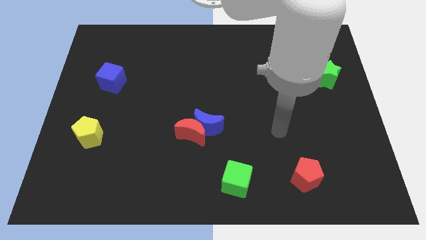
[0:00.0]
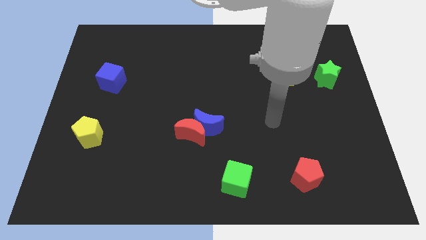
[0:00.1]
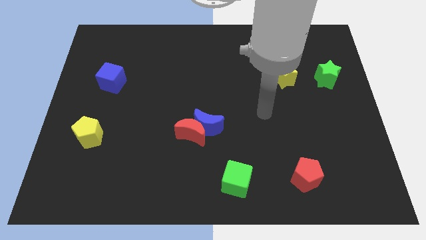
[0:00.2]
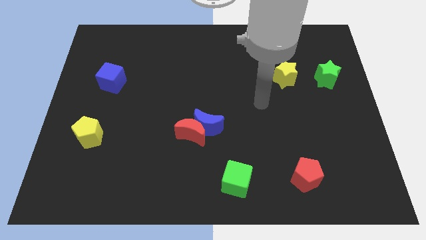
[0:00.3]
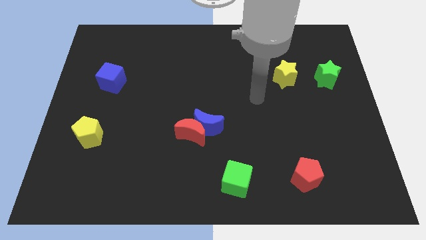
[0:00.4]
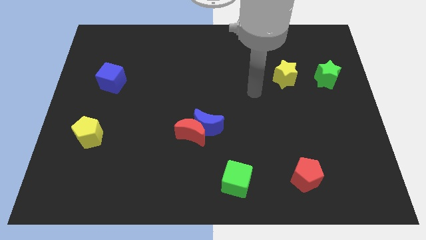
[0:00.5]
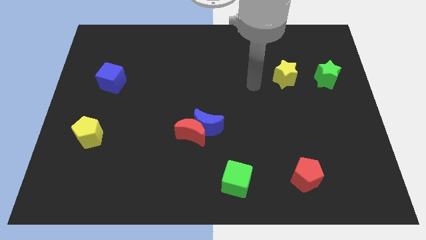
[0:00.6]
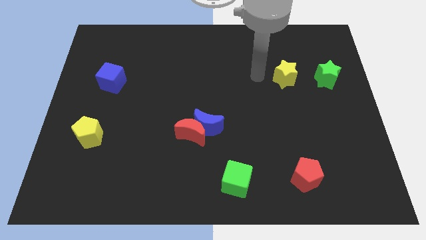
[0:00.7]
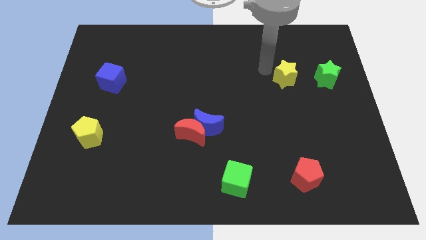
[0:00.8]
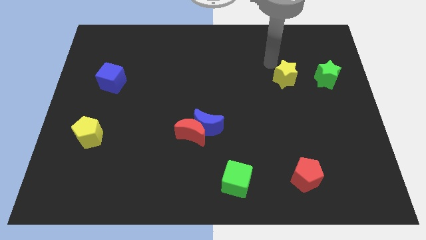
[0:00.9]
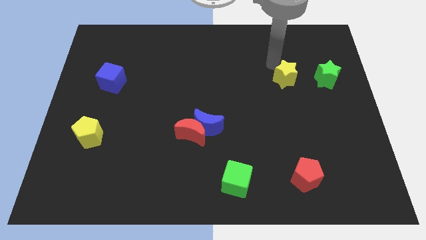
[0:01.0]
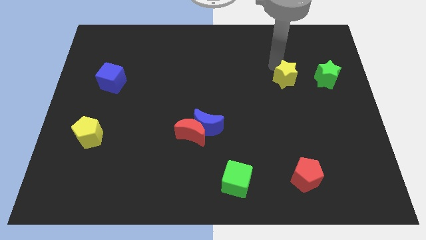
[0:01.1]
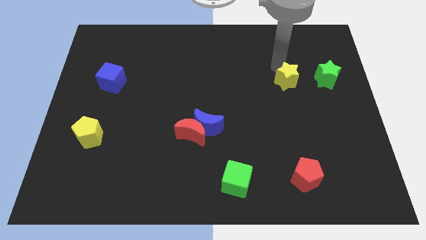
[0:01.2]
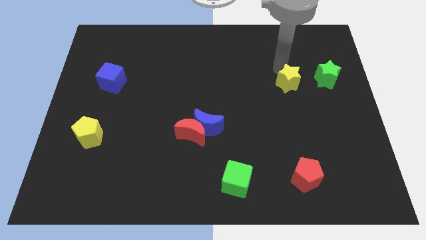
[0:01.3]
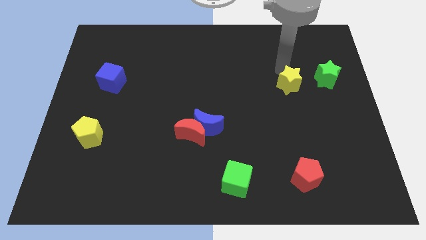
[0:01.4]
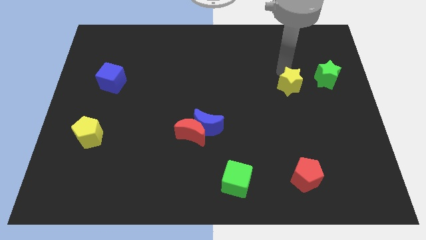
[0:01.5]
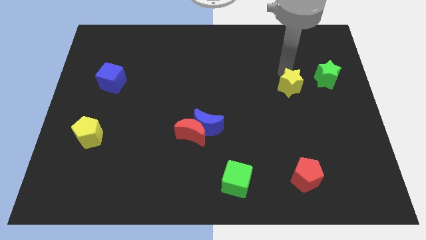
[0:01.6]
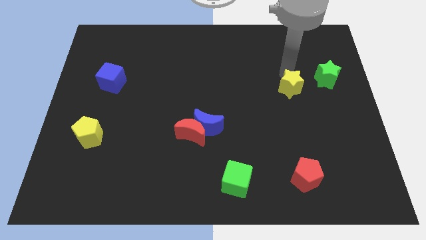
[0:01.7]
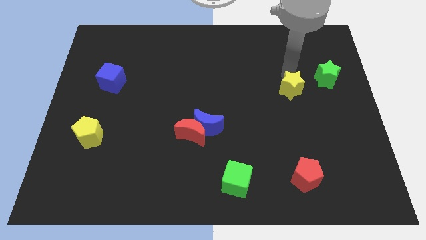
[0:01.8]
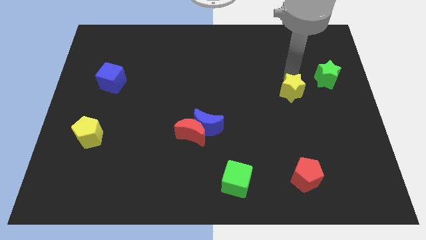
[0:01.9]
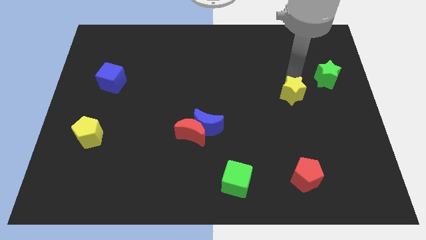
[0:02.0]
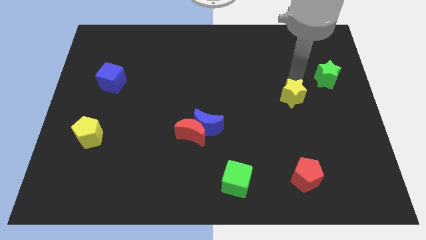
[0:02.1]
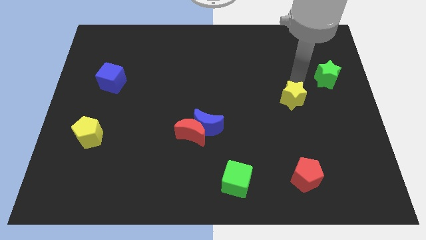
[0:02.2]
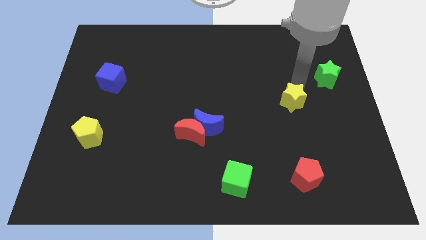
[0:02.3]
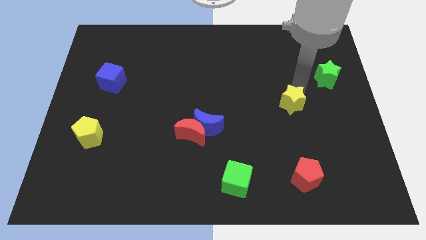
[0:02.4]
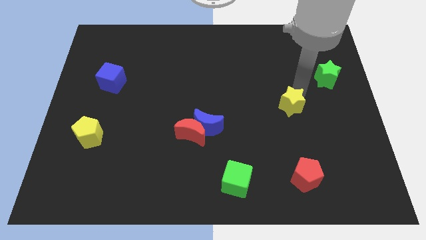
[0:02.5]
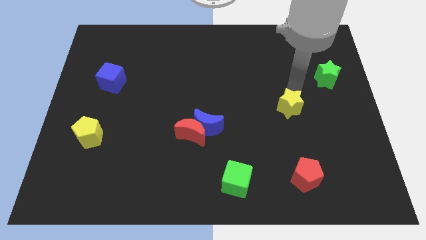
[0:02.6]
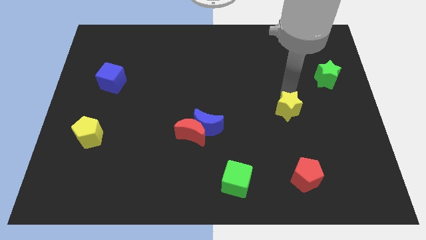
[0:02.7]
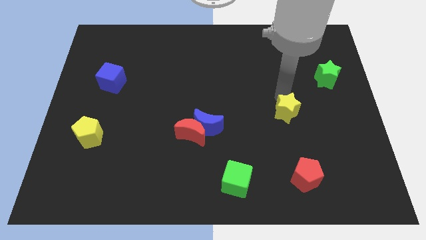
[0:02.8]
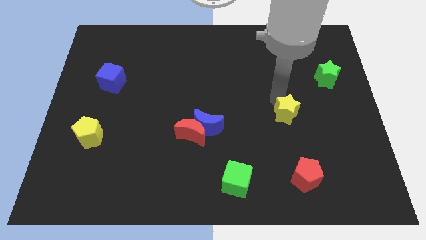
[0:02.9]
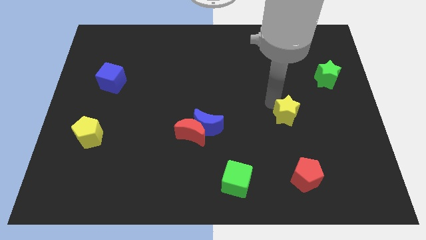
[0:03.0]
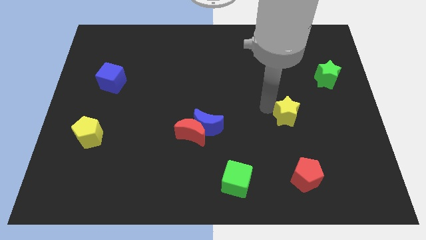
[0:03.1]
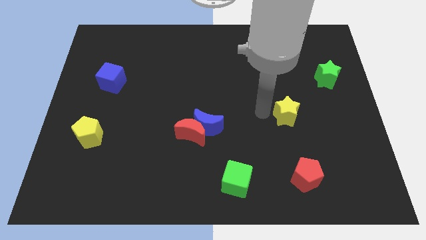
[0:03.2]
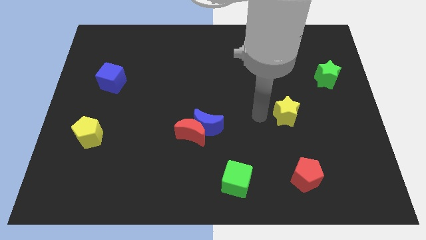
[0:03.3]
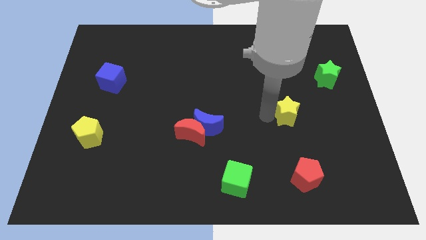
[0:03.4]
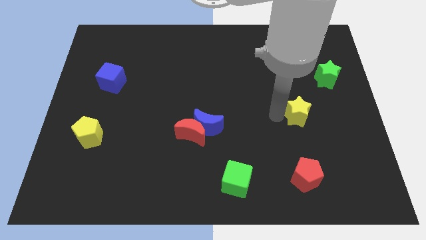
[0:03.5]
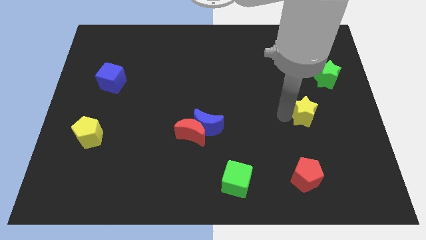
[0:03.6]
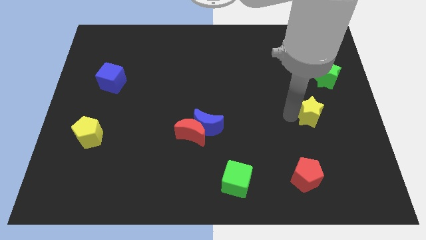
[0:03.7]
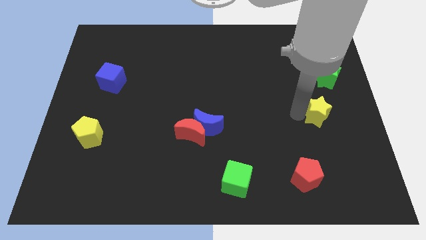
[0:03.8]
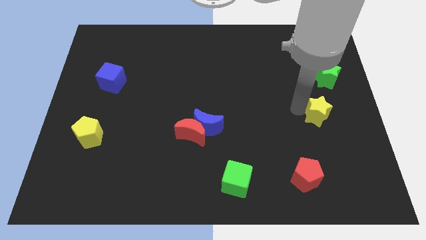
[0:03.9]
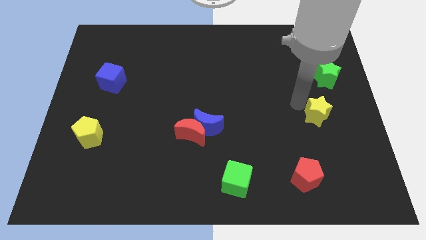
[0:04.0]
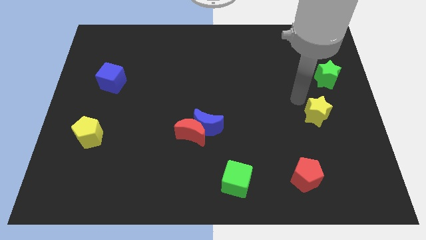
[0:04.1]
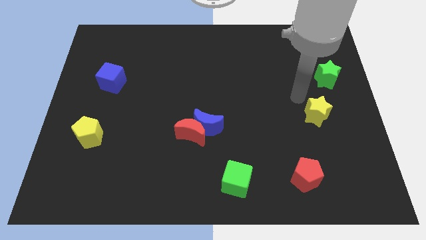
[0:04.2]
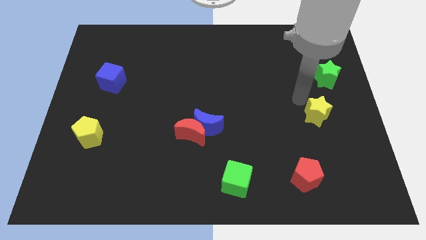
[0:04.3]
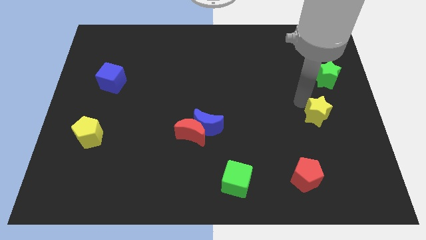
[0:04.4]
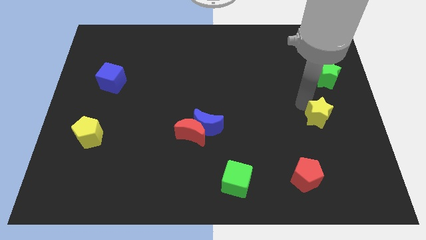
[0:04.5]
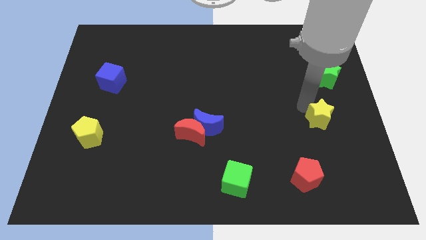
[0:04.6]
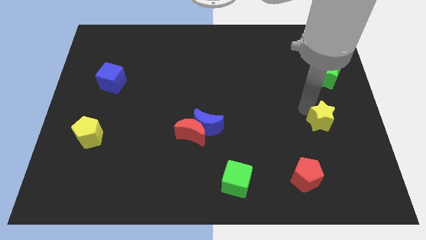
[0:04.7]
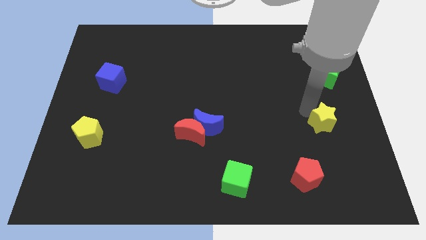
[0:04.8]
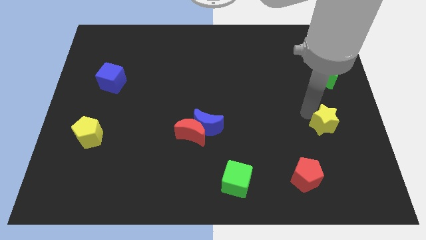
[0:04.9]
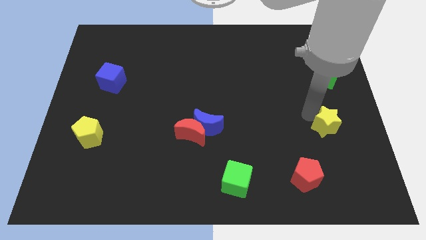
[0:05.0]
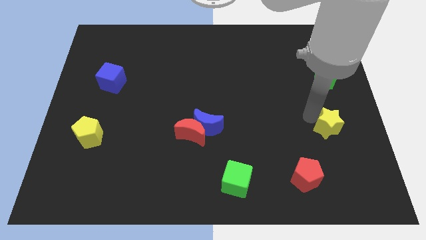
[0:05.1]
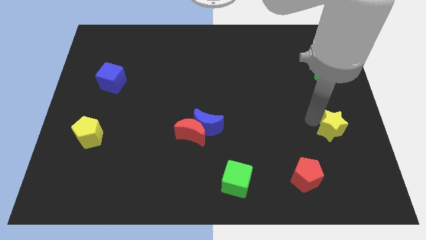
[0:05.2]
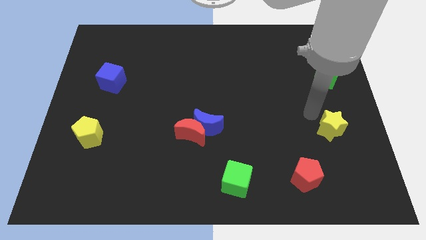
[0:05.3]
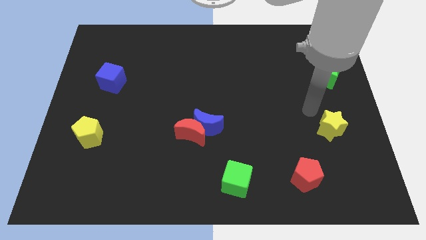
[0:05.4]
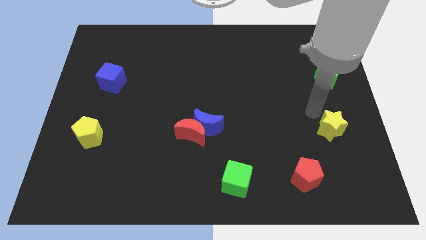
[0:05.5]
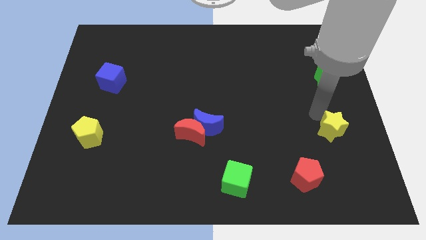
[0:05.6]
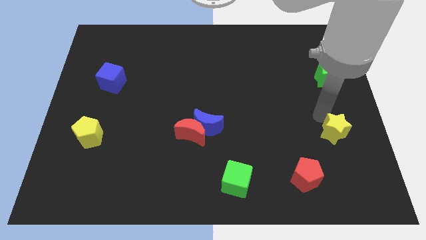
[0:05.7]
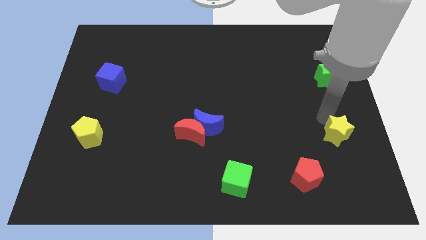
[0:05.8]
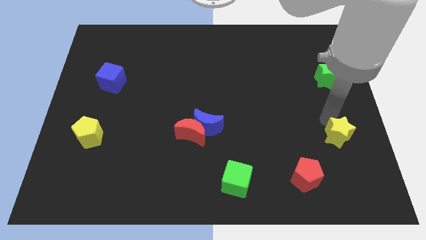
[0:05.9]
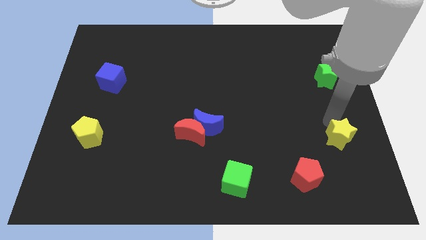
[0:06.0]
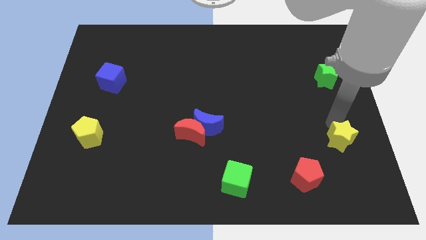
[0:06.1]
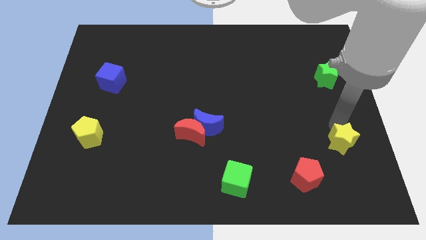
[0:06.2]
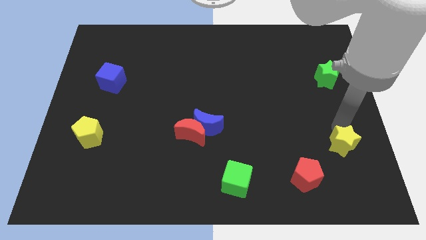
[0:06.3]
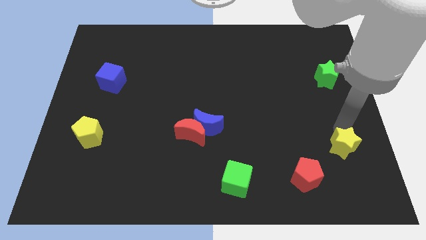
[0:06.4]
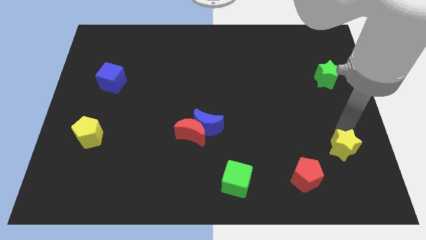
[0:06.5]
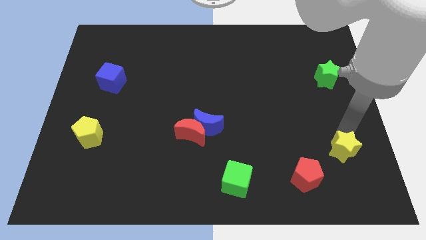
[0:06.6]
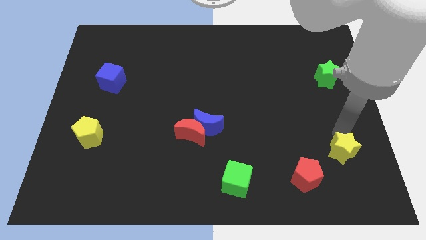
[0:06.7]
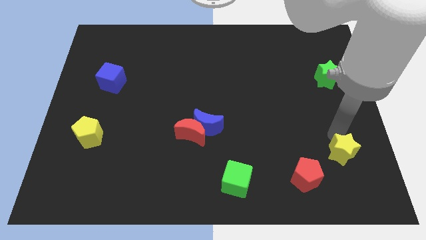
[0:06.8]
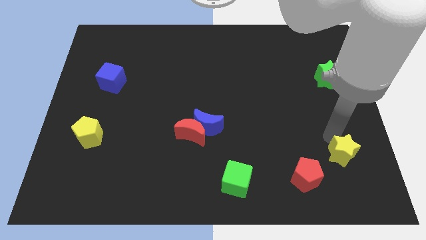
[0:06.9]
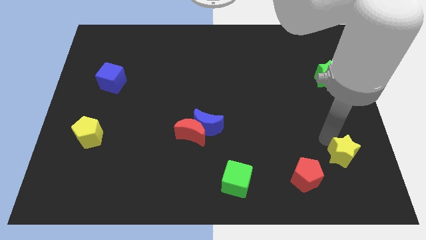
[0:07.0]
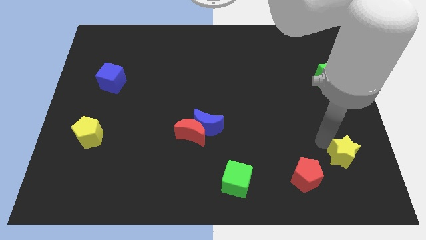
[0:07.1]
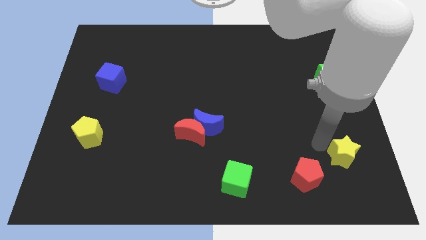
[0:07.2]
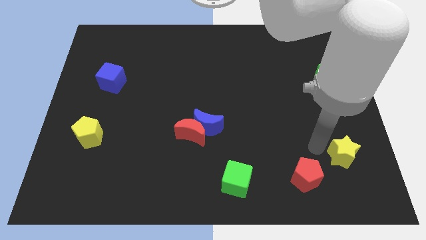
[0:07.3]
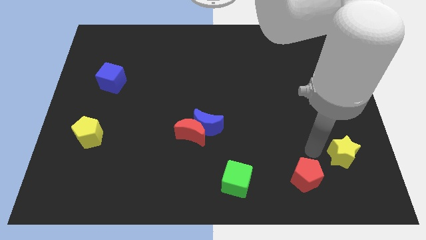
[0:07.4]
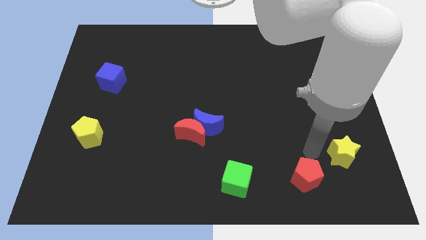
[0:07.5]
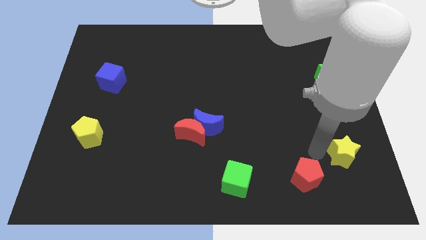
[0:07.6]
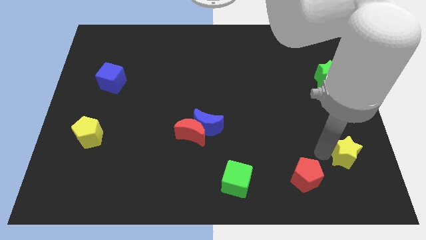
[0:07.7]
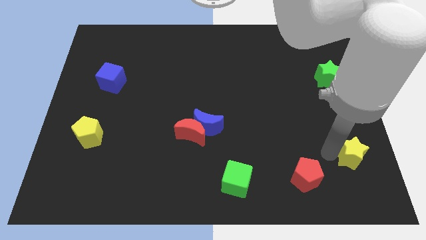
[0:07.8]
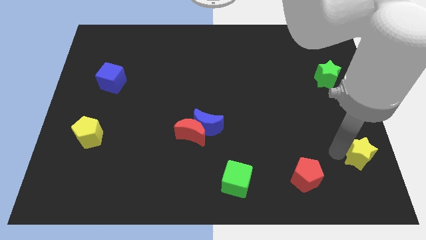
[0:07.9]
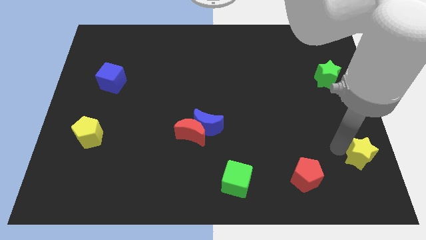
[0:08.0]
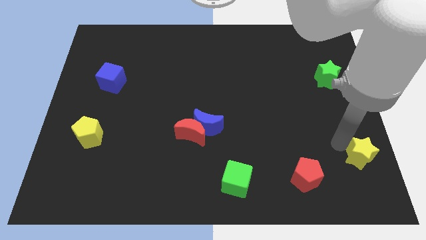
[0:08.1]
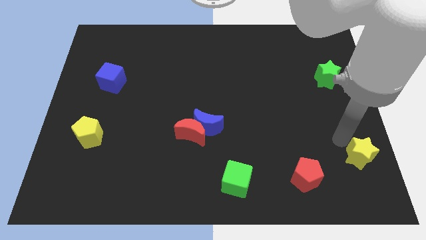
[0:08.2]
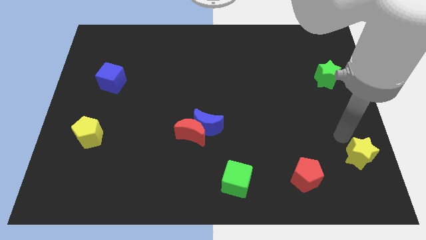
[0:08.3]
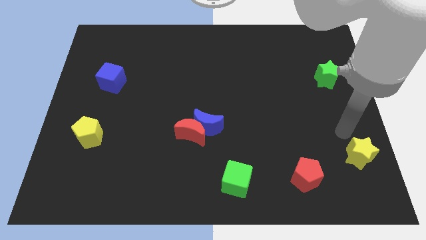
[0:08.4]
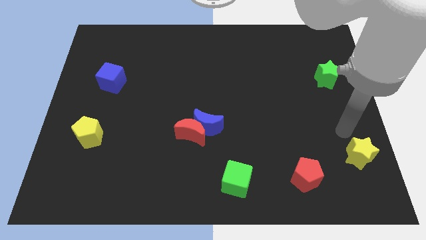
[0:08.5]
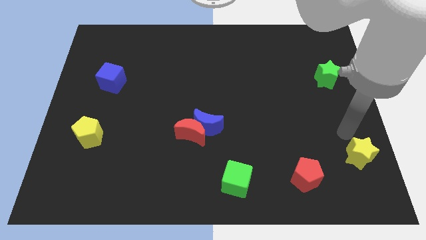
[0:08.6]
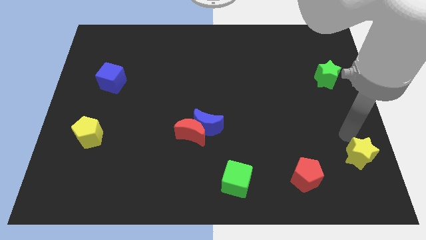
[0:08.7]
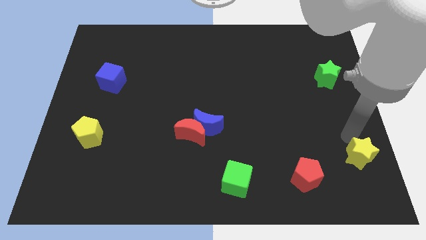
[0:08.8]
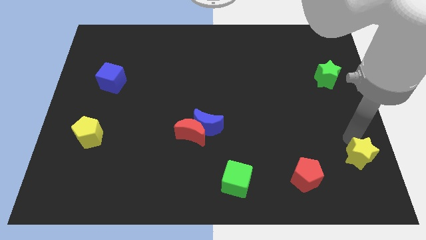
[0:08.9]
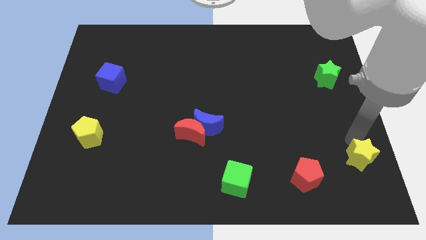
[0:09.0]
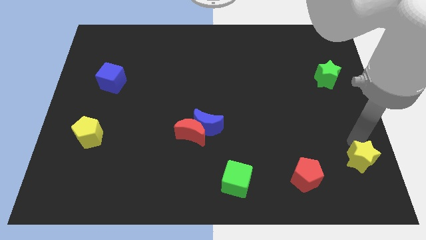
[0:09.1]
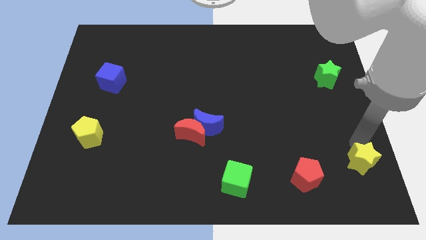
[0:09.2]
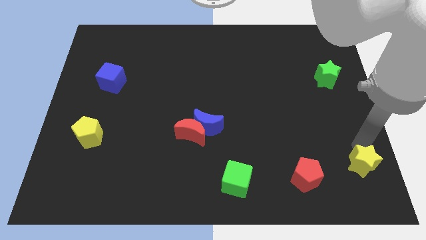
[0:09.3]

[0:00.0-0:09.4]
push the yellow star to the bottom right of the board
